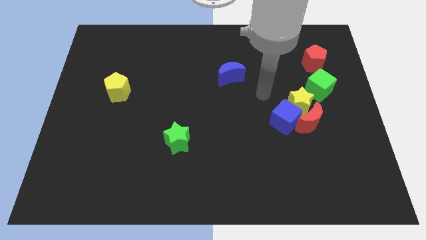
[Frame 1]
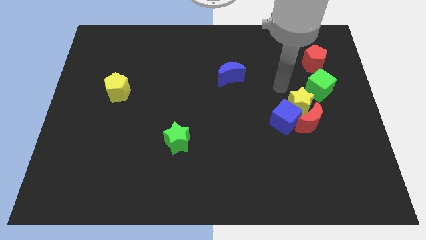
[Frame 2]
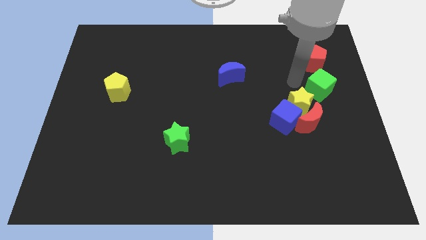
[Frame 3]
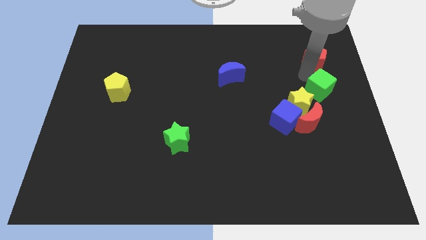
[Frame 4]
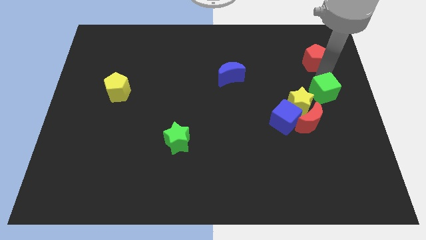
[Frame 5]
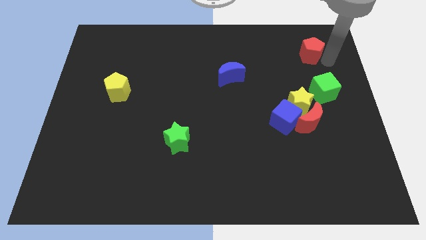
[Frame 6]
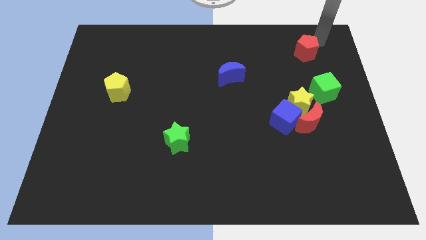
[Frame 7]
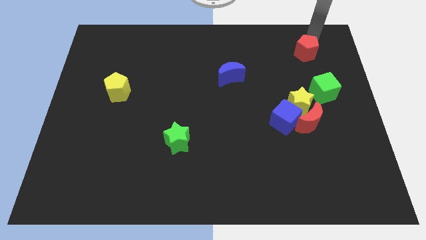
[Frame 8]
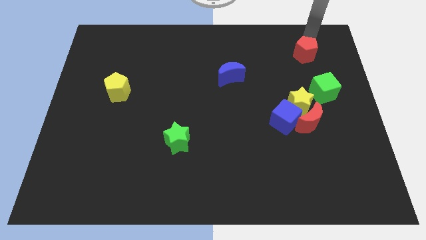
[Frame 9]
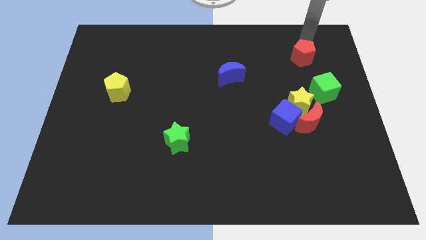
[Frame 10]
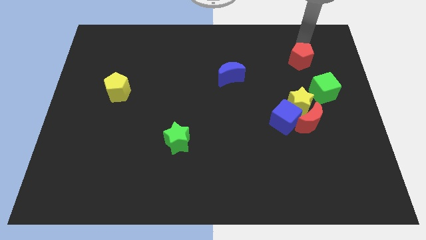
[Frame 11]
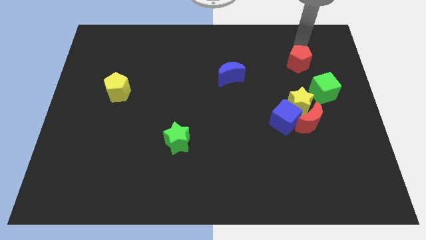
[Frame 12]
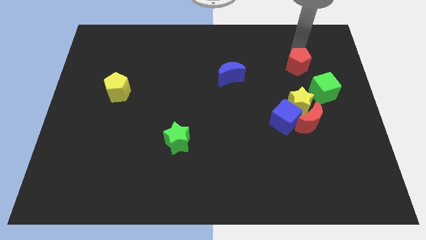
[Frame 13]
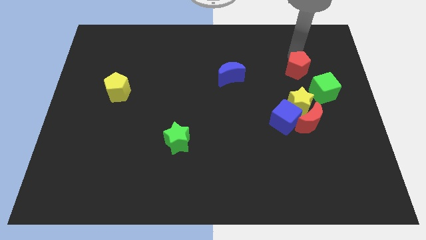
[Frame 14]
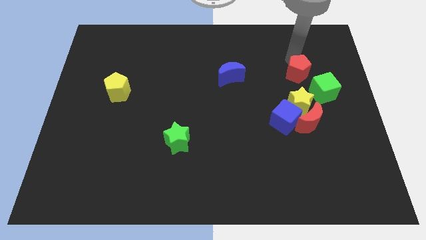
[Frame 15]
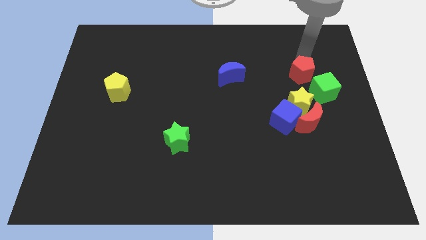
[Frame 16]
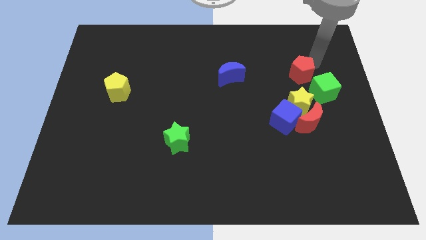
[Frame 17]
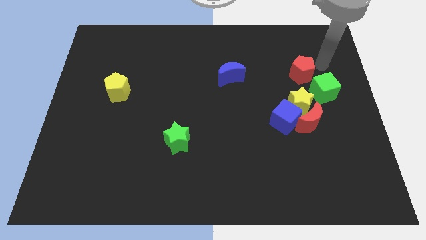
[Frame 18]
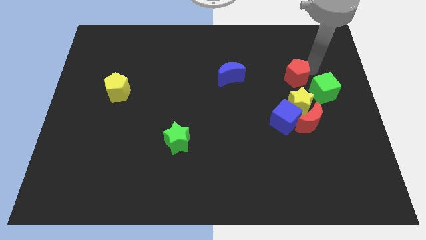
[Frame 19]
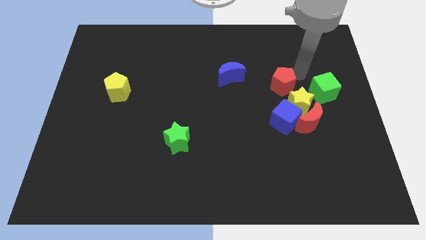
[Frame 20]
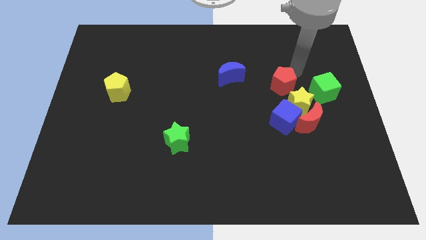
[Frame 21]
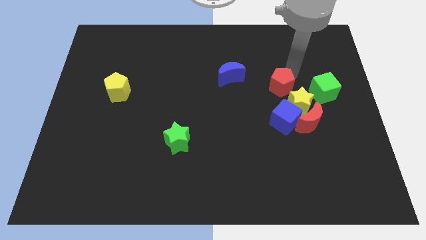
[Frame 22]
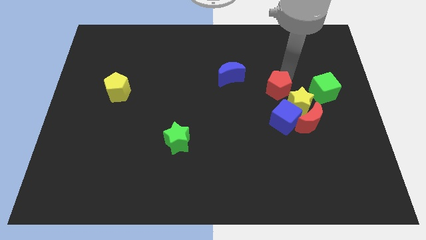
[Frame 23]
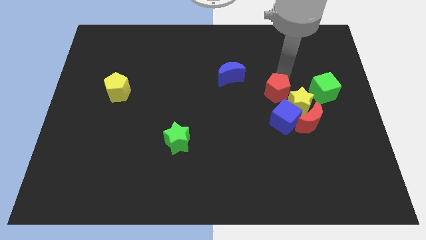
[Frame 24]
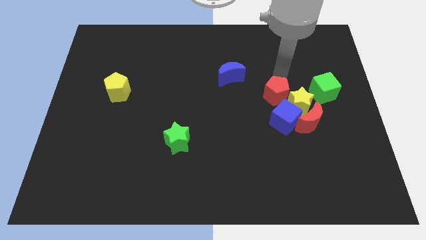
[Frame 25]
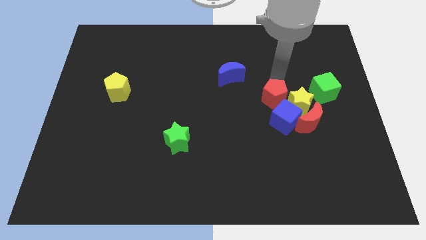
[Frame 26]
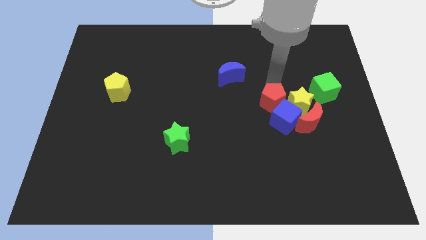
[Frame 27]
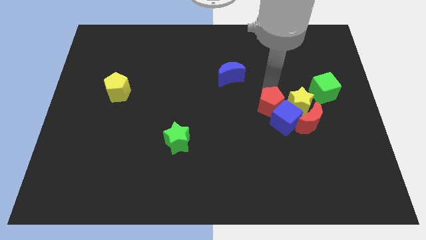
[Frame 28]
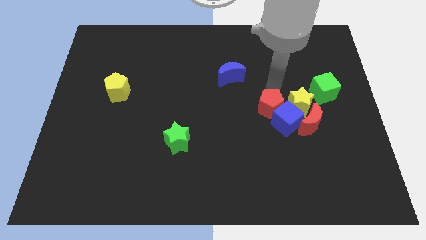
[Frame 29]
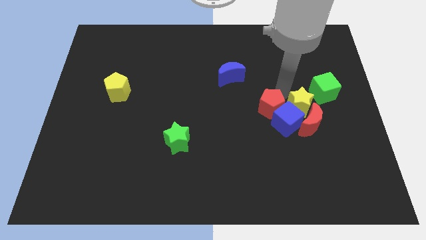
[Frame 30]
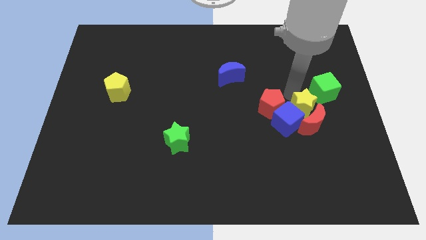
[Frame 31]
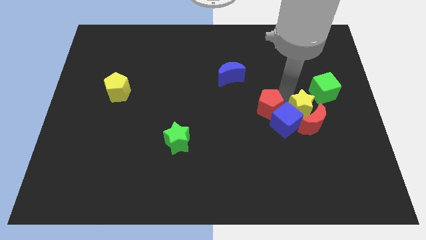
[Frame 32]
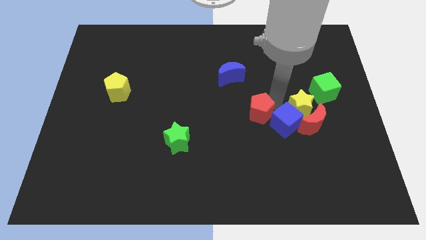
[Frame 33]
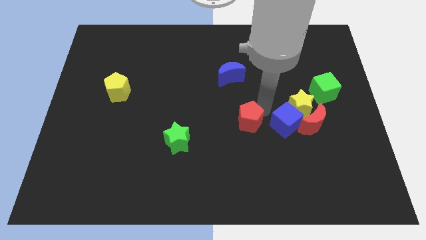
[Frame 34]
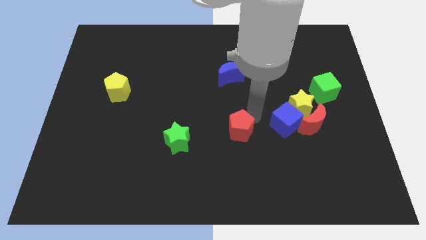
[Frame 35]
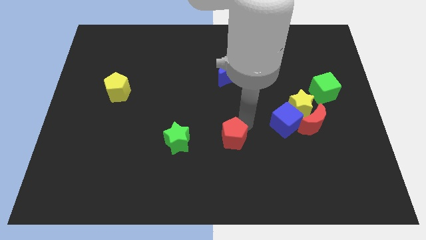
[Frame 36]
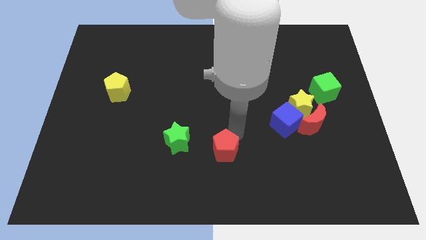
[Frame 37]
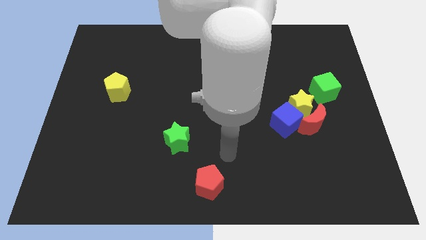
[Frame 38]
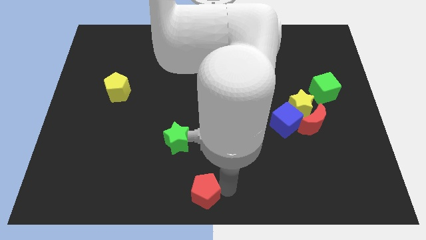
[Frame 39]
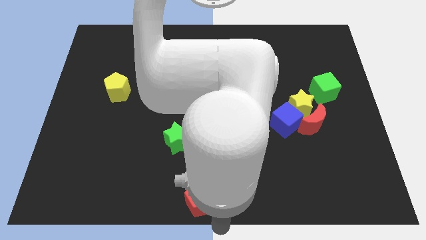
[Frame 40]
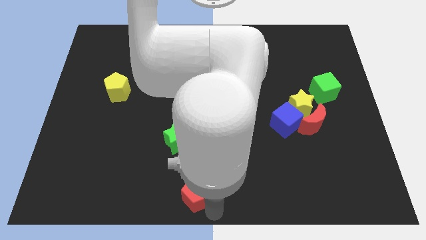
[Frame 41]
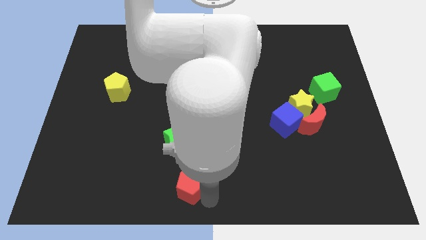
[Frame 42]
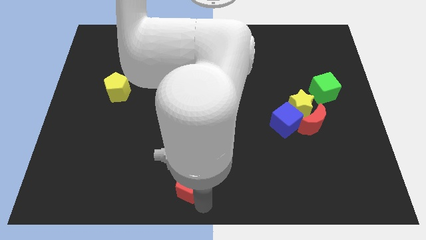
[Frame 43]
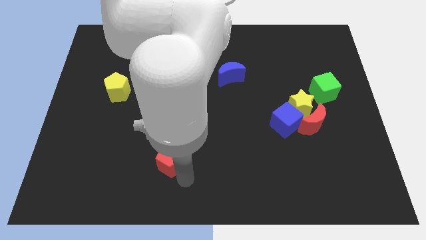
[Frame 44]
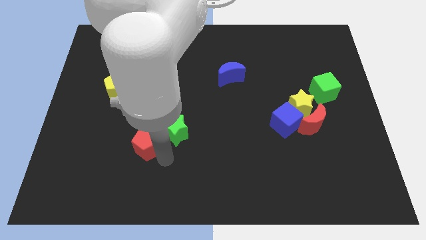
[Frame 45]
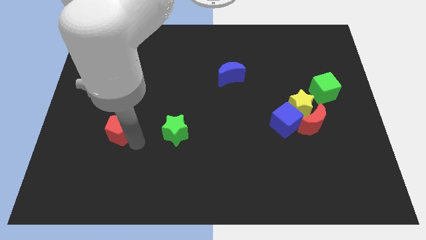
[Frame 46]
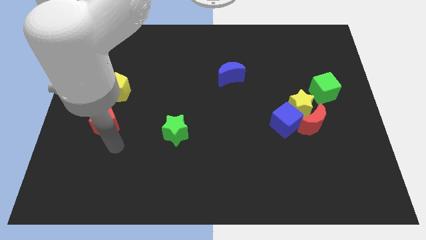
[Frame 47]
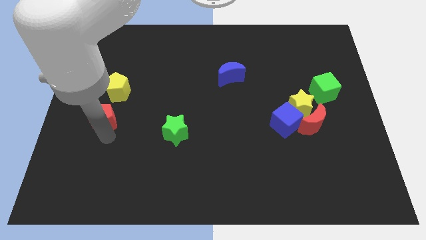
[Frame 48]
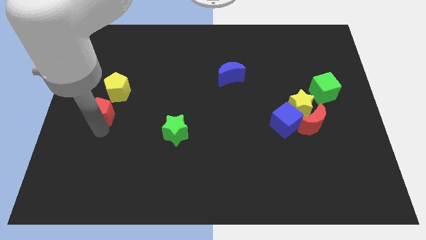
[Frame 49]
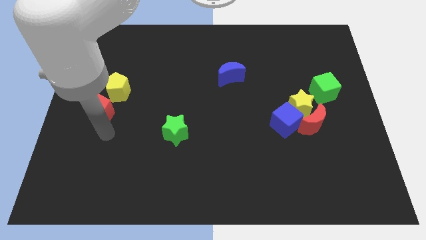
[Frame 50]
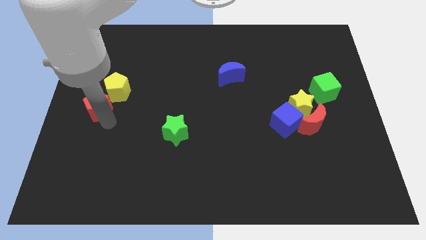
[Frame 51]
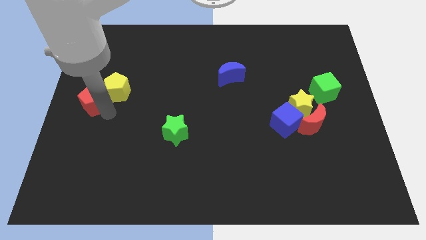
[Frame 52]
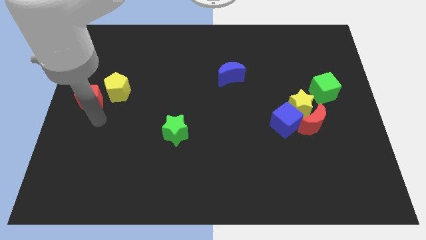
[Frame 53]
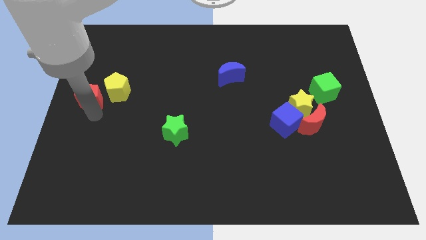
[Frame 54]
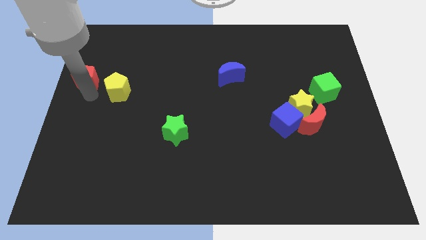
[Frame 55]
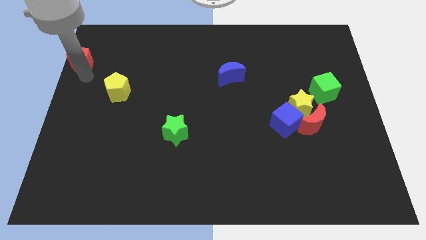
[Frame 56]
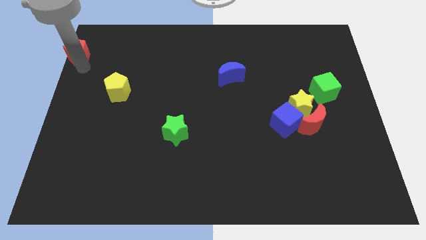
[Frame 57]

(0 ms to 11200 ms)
put the red pentagon to the upper left corner
